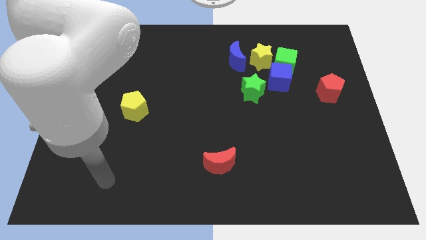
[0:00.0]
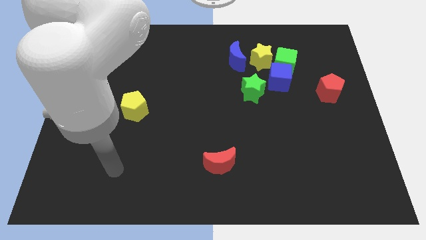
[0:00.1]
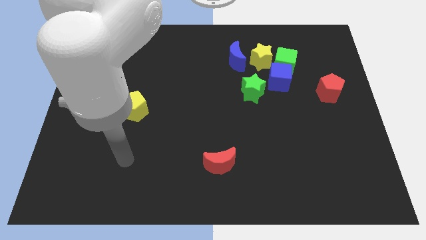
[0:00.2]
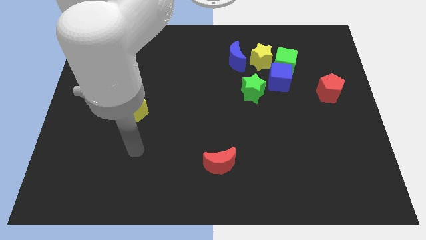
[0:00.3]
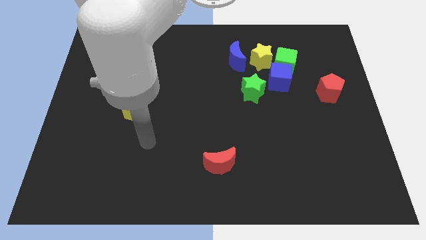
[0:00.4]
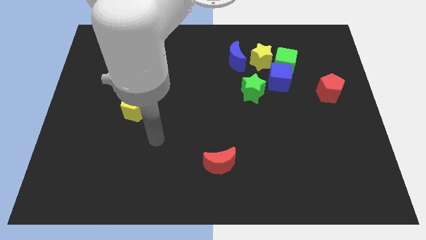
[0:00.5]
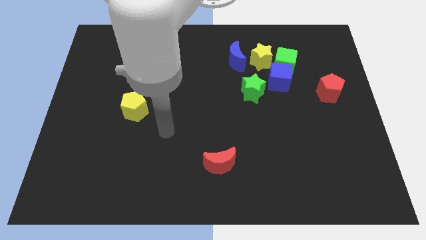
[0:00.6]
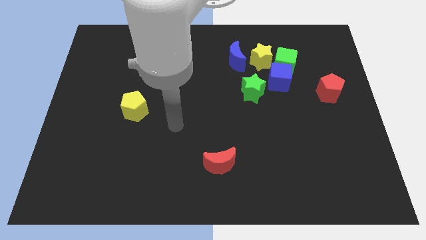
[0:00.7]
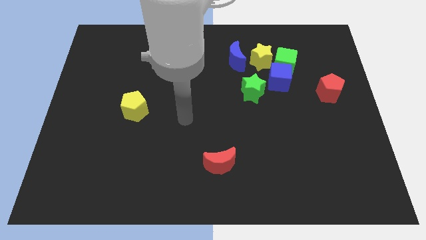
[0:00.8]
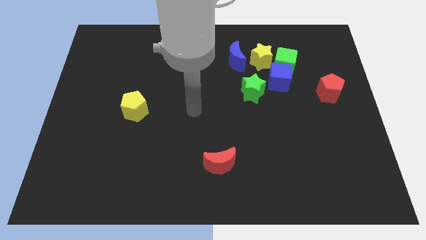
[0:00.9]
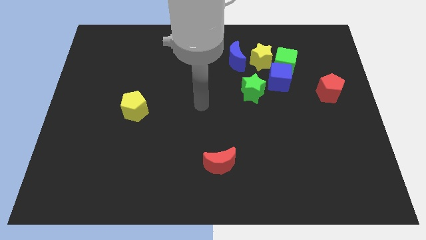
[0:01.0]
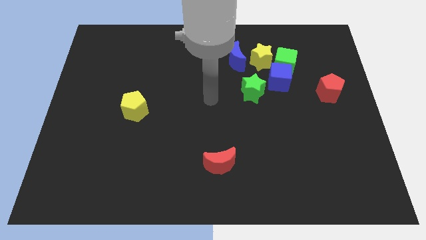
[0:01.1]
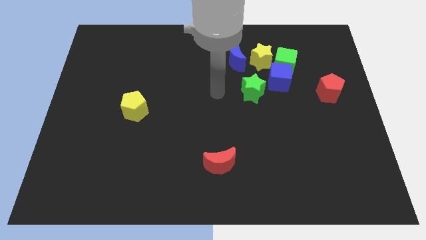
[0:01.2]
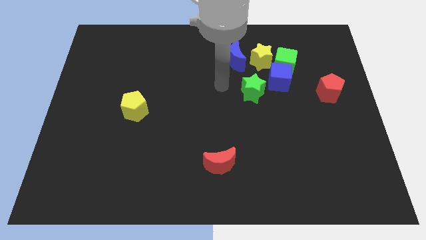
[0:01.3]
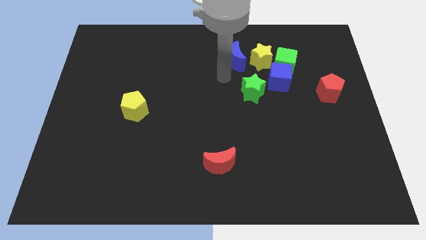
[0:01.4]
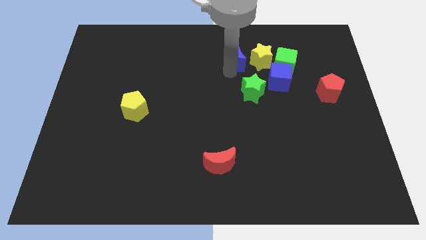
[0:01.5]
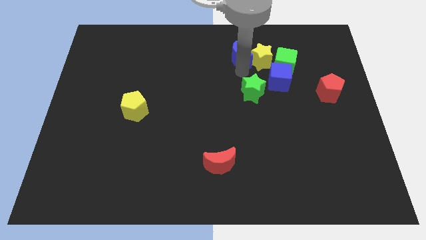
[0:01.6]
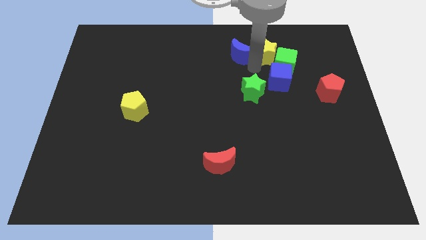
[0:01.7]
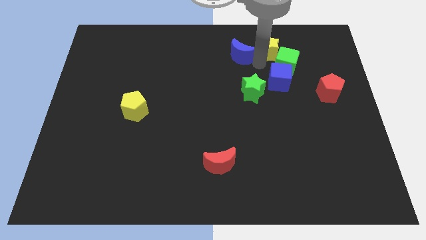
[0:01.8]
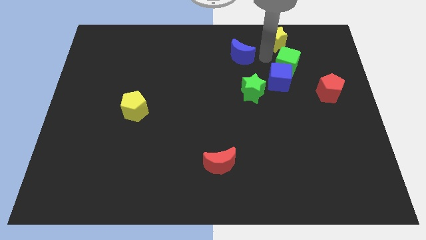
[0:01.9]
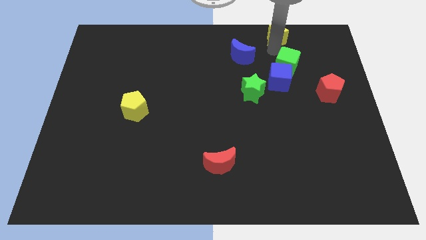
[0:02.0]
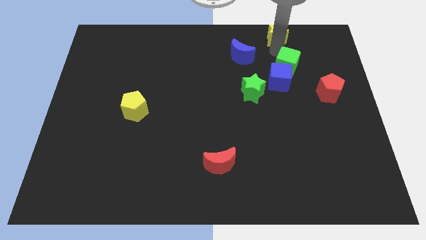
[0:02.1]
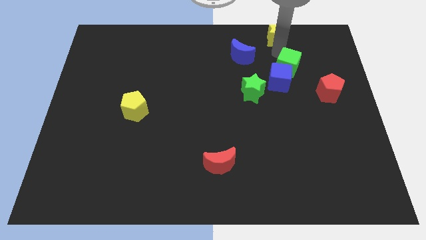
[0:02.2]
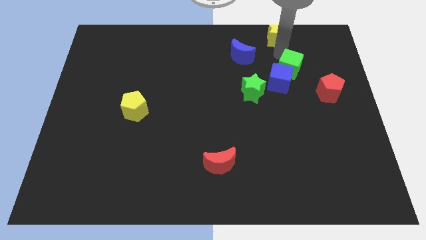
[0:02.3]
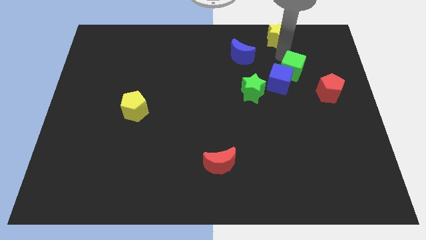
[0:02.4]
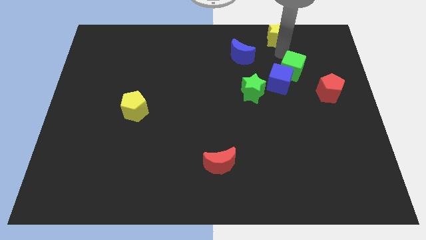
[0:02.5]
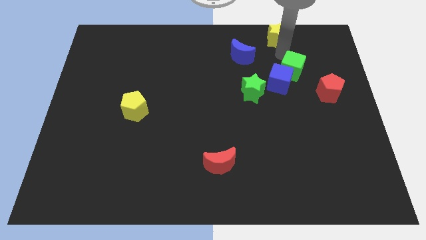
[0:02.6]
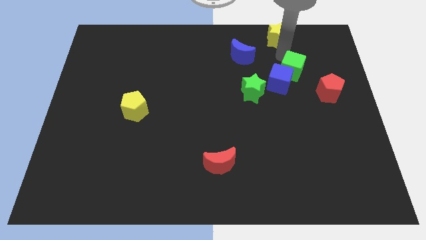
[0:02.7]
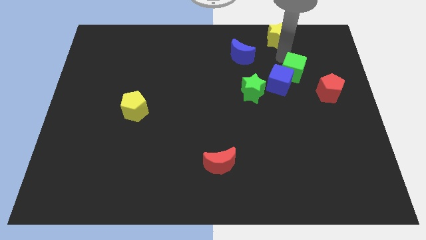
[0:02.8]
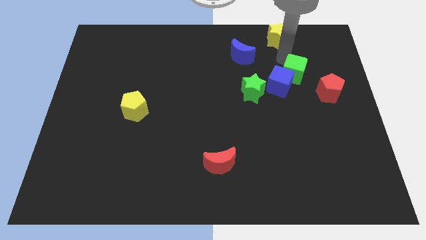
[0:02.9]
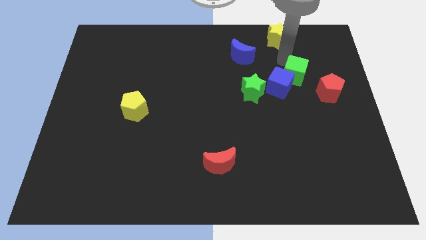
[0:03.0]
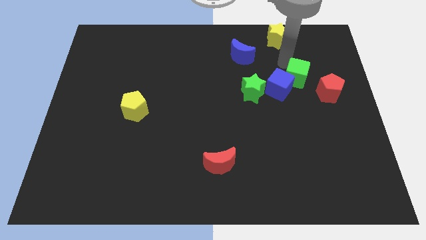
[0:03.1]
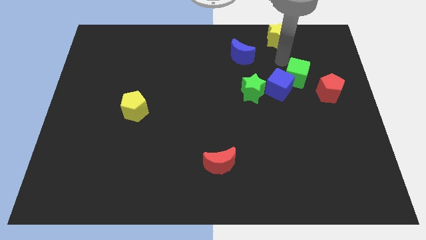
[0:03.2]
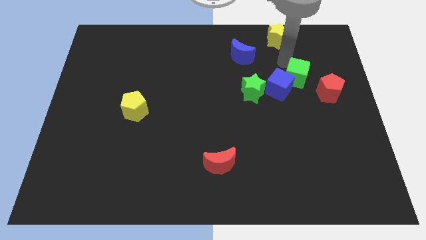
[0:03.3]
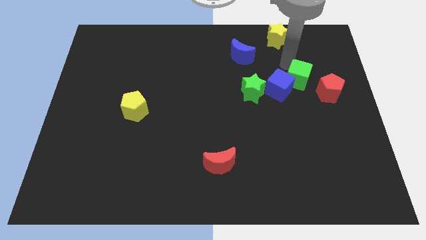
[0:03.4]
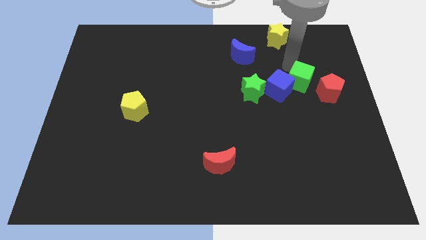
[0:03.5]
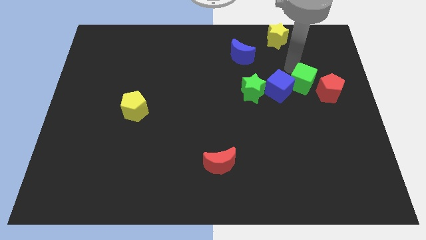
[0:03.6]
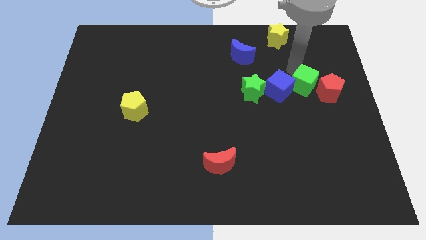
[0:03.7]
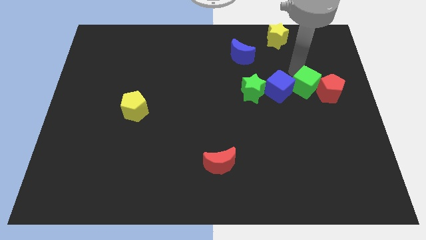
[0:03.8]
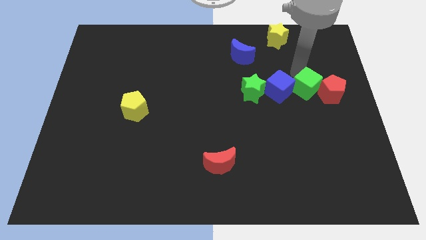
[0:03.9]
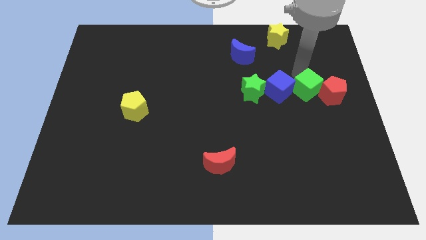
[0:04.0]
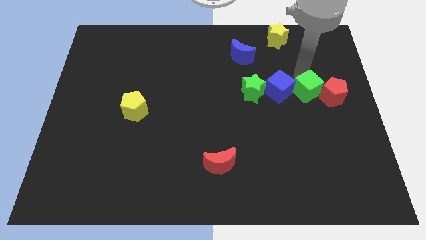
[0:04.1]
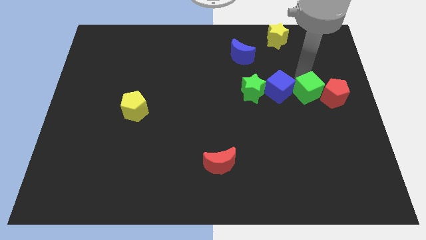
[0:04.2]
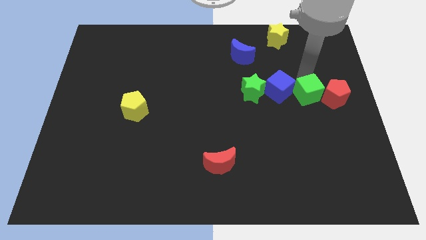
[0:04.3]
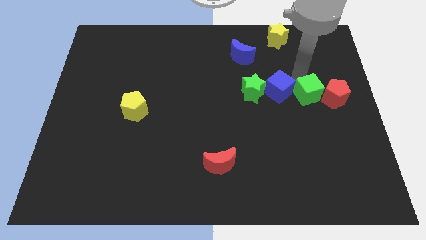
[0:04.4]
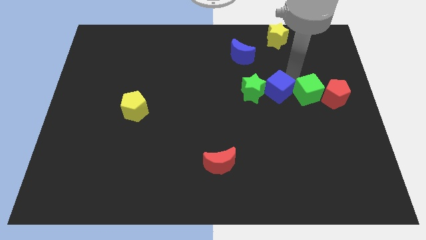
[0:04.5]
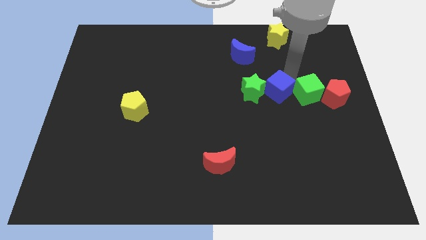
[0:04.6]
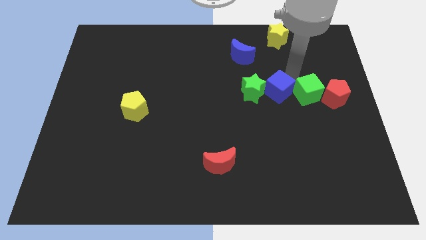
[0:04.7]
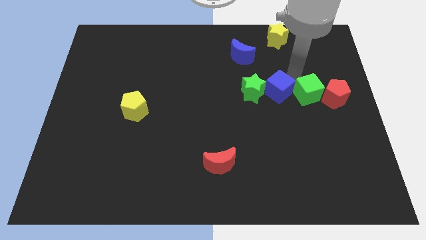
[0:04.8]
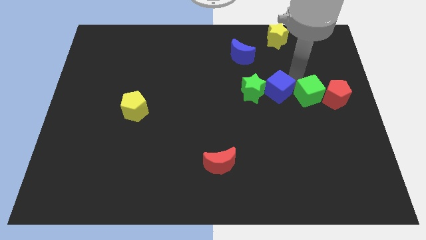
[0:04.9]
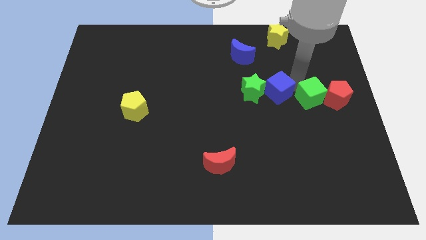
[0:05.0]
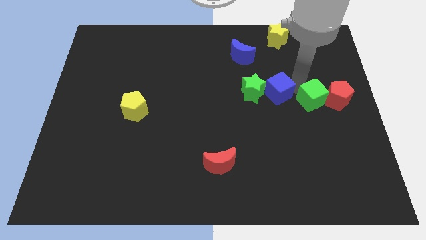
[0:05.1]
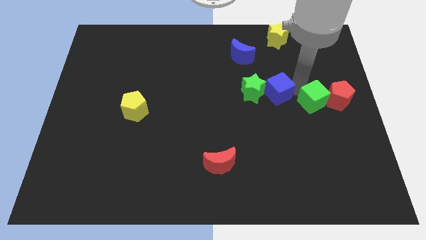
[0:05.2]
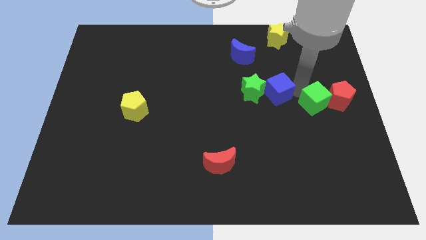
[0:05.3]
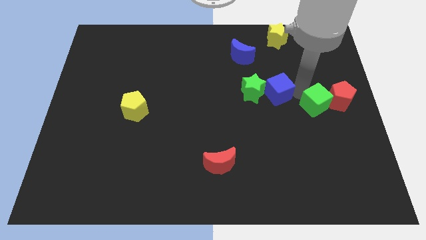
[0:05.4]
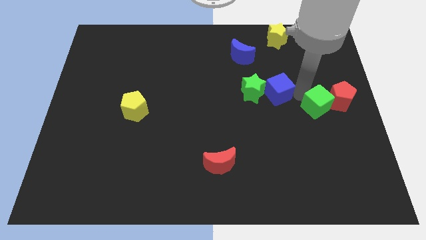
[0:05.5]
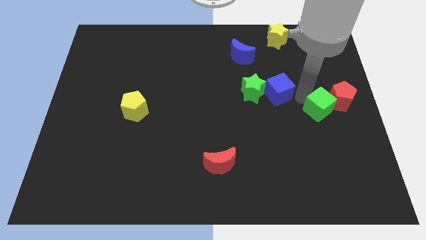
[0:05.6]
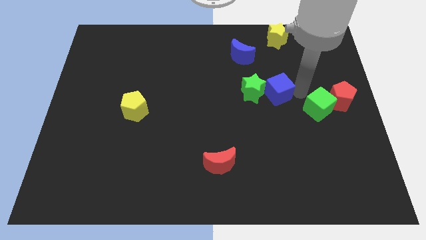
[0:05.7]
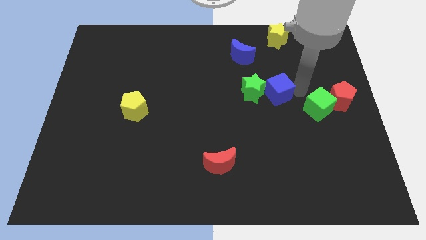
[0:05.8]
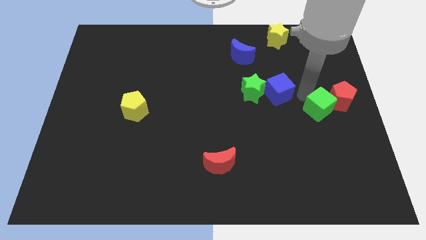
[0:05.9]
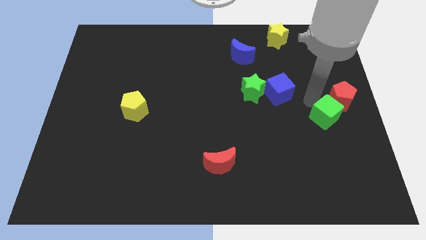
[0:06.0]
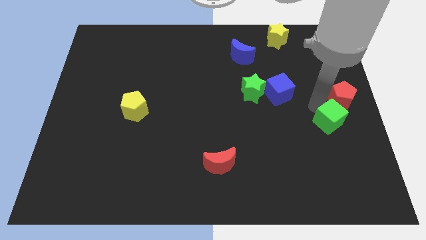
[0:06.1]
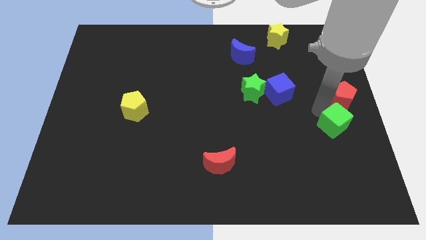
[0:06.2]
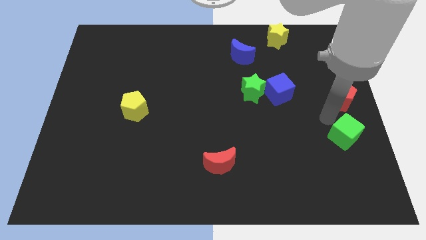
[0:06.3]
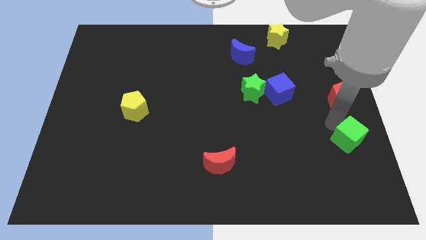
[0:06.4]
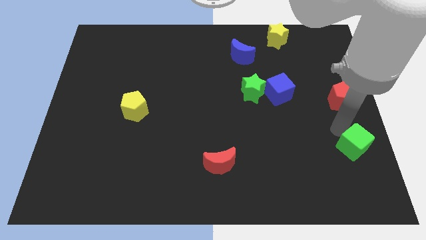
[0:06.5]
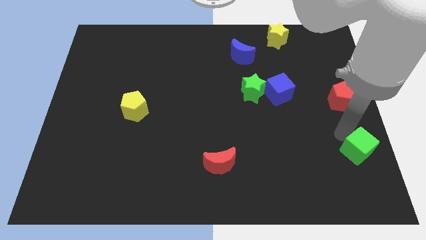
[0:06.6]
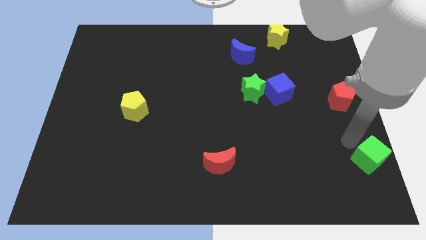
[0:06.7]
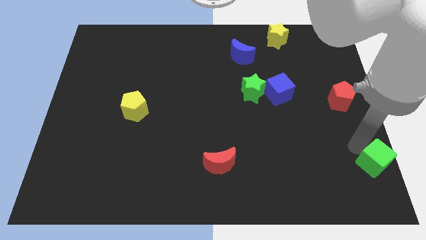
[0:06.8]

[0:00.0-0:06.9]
slide the green cube to the lower right corner
